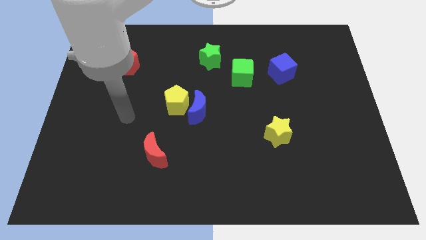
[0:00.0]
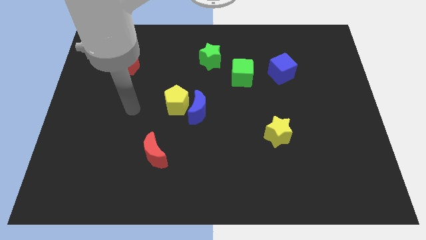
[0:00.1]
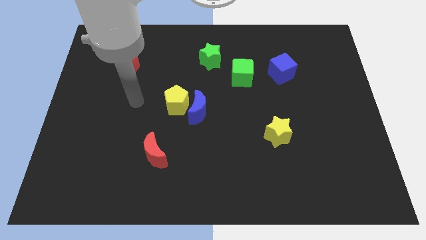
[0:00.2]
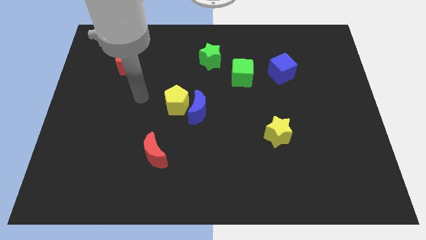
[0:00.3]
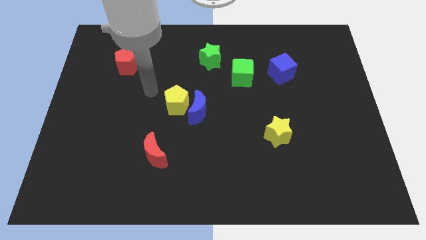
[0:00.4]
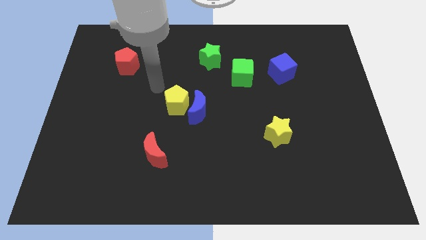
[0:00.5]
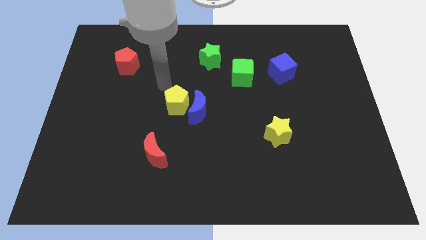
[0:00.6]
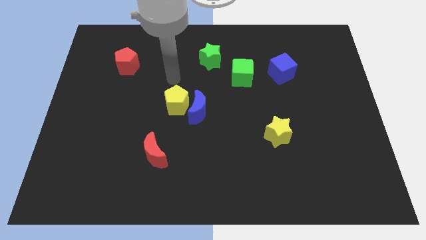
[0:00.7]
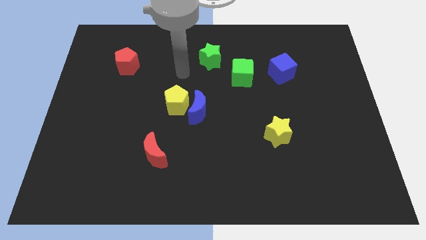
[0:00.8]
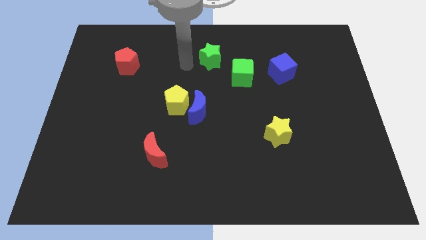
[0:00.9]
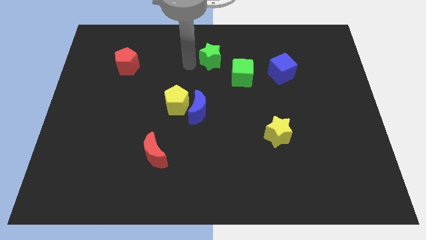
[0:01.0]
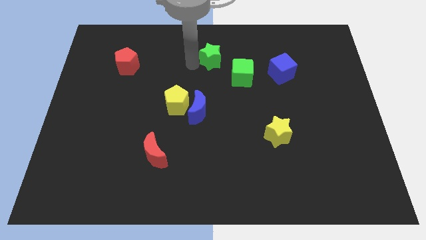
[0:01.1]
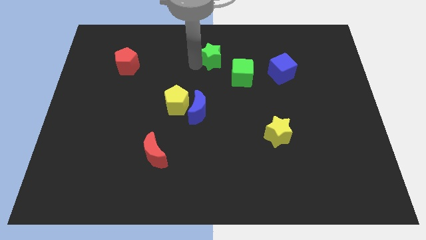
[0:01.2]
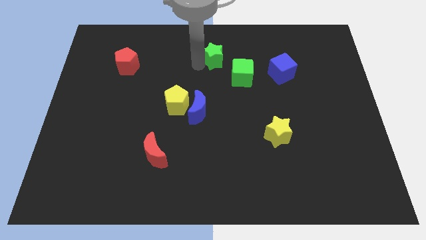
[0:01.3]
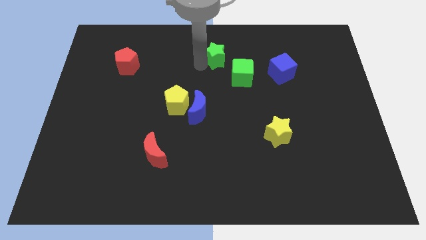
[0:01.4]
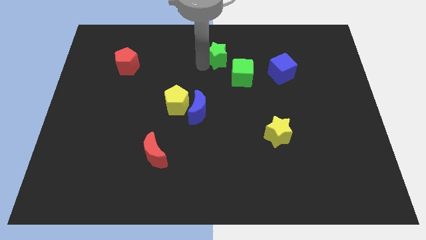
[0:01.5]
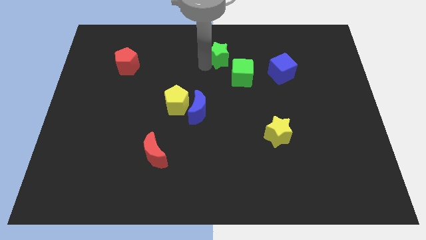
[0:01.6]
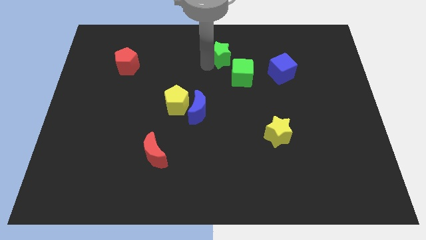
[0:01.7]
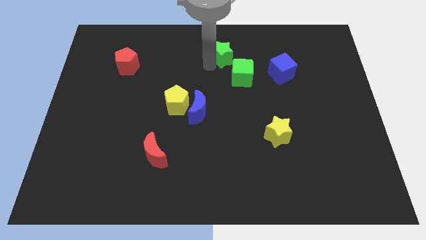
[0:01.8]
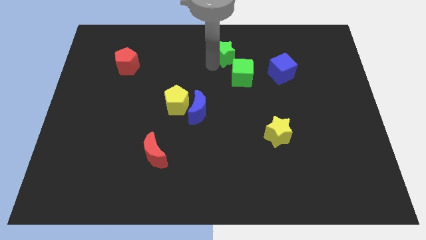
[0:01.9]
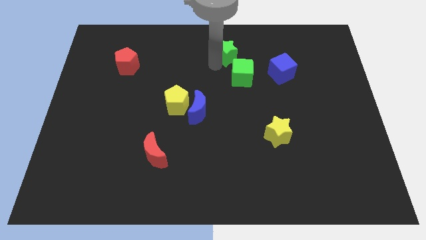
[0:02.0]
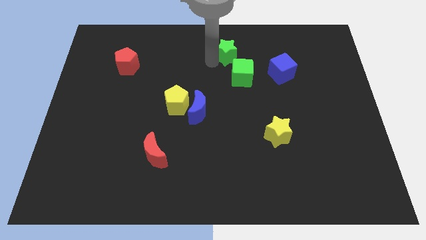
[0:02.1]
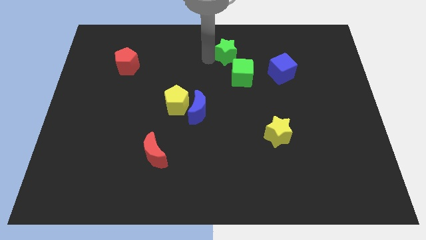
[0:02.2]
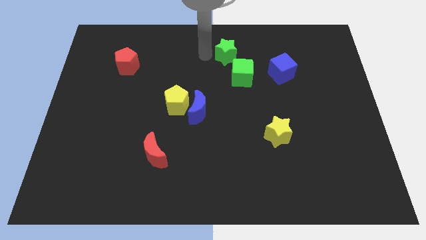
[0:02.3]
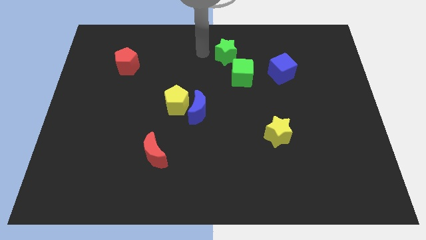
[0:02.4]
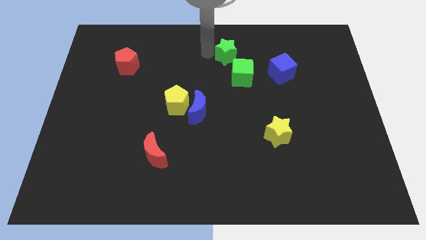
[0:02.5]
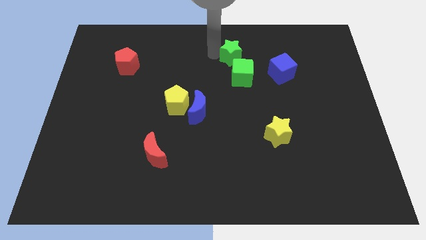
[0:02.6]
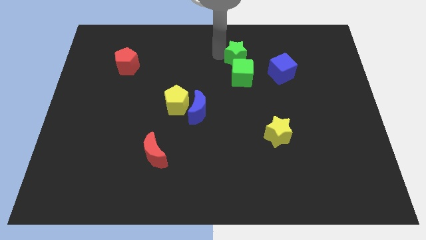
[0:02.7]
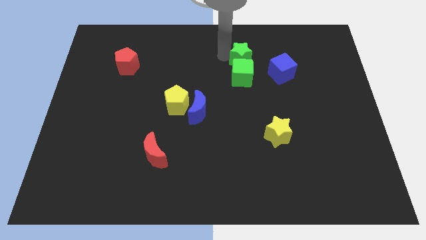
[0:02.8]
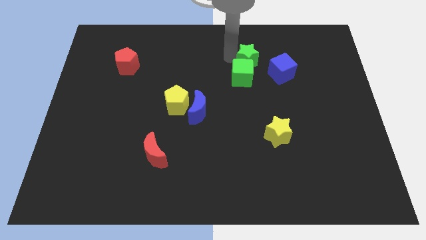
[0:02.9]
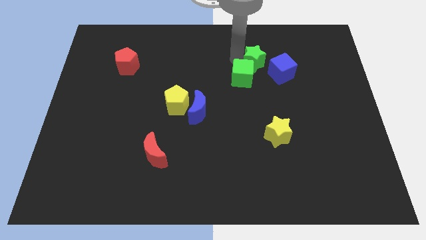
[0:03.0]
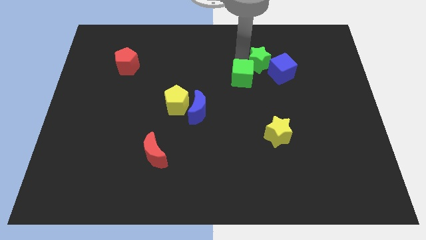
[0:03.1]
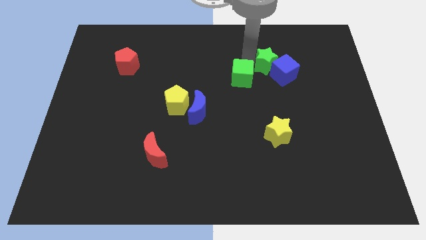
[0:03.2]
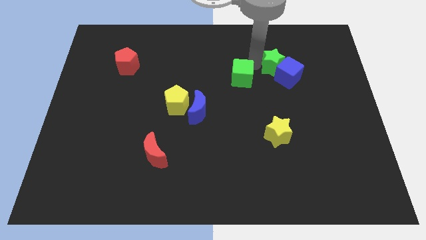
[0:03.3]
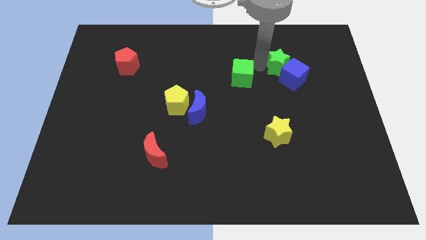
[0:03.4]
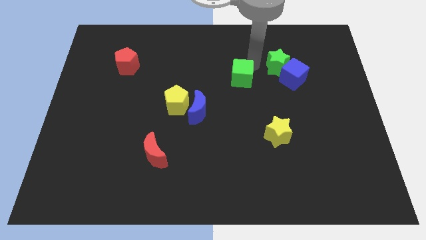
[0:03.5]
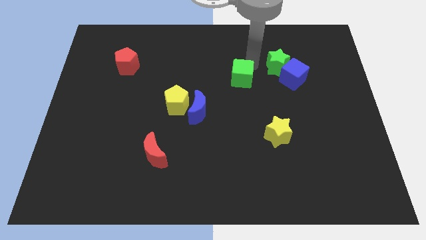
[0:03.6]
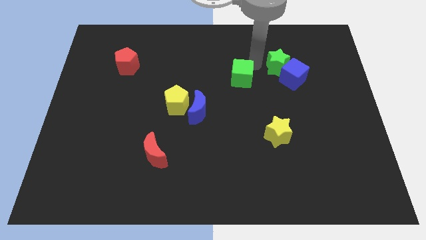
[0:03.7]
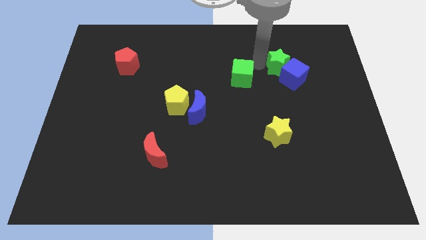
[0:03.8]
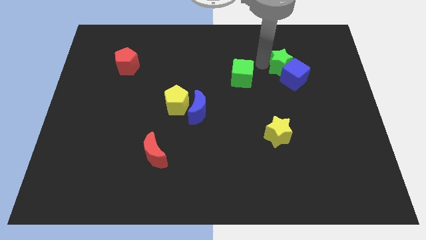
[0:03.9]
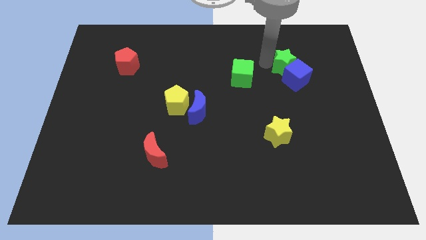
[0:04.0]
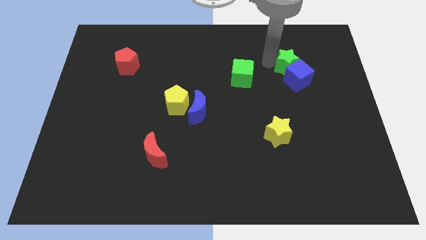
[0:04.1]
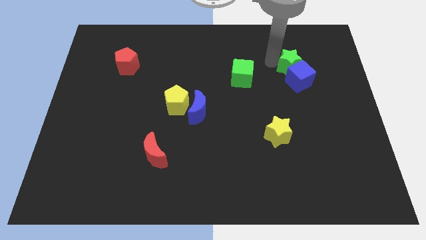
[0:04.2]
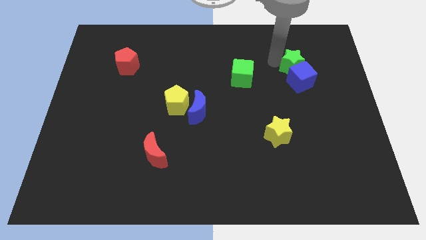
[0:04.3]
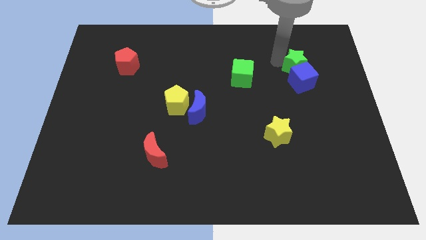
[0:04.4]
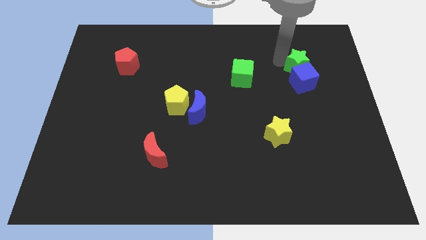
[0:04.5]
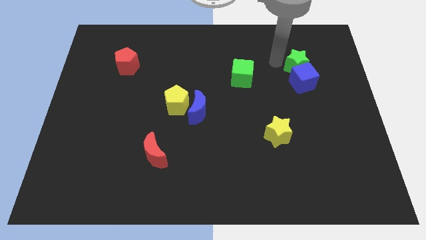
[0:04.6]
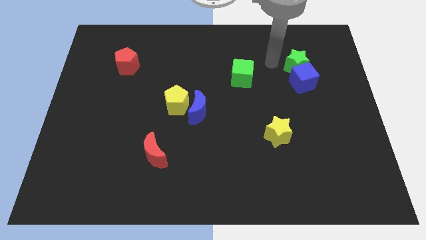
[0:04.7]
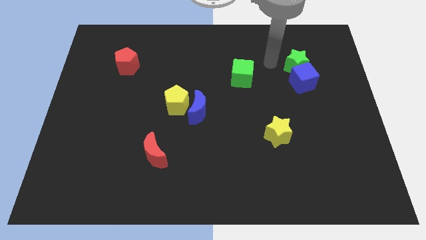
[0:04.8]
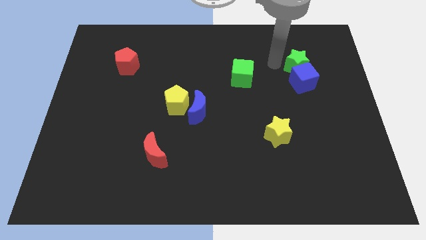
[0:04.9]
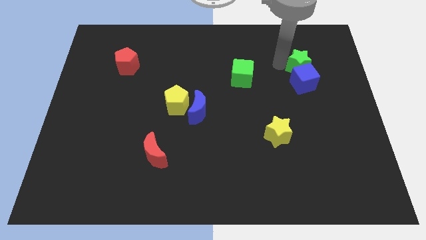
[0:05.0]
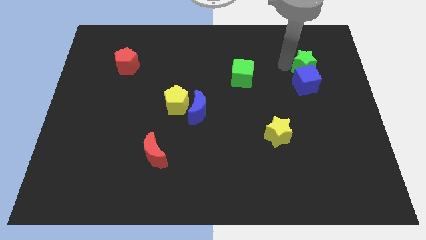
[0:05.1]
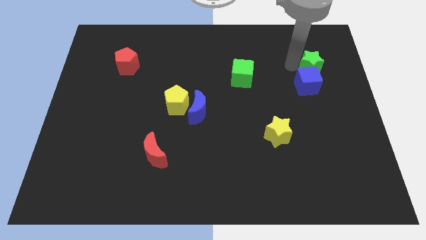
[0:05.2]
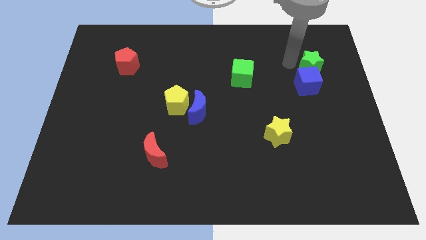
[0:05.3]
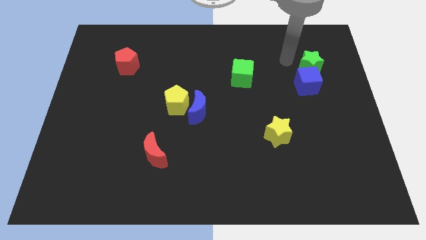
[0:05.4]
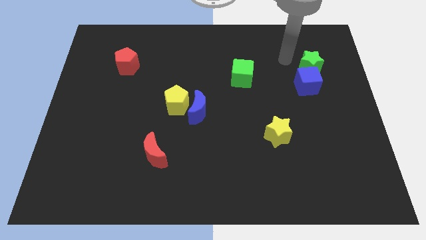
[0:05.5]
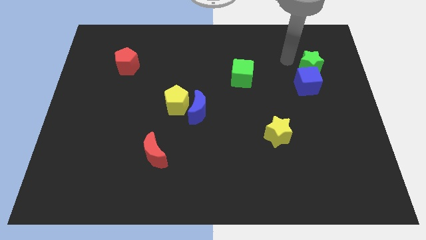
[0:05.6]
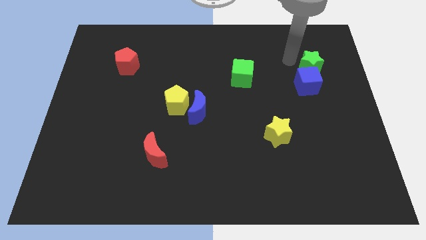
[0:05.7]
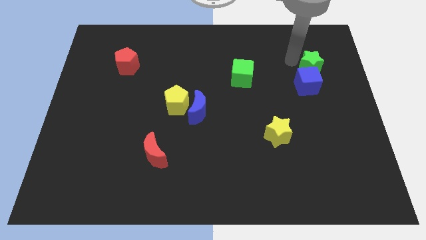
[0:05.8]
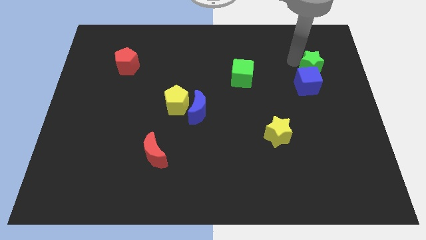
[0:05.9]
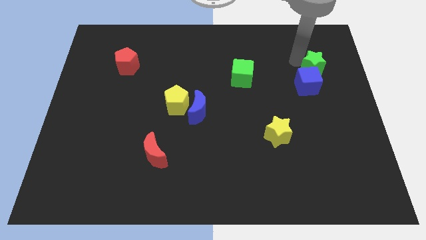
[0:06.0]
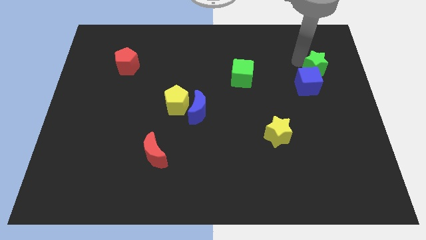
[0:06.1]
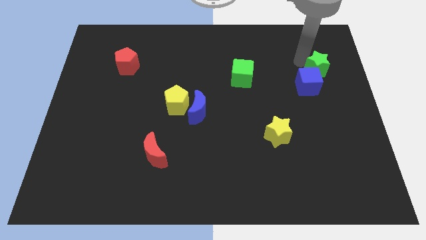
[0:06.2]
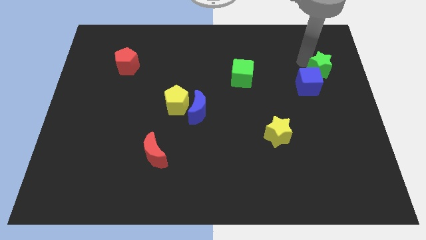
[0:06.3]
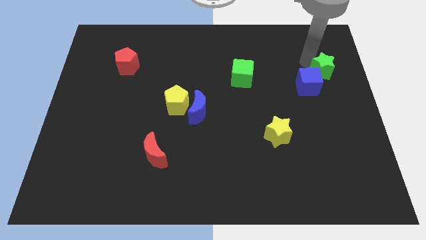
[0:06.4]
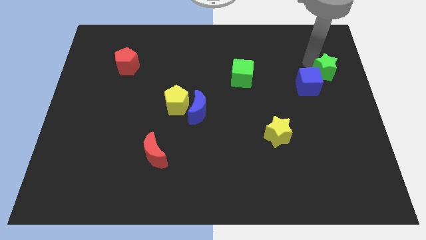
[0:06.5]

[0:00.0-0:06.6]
slide the green star to the right side
